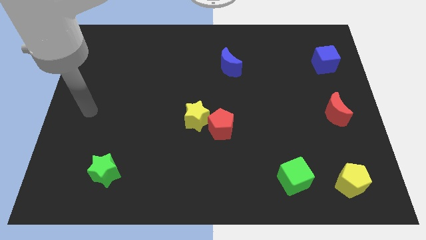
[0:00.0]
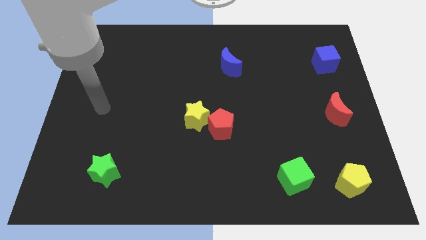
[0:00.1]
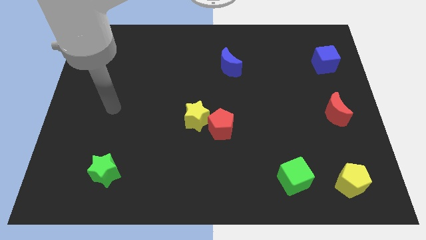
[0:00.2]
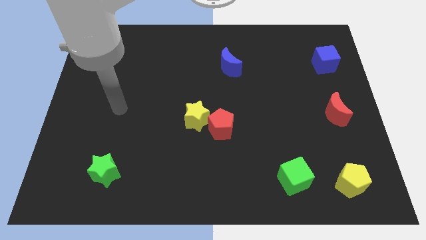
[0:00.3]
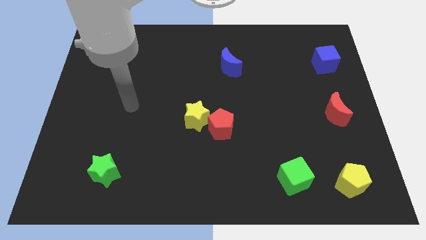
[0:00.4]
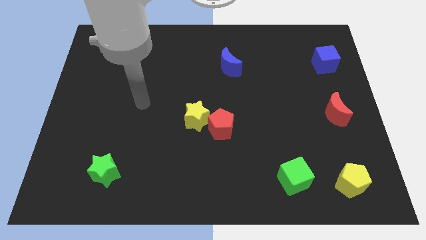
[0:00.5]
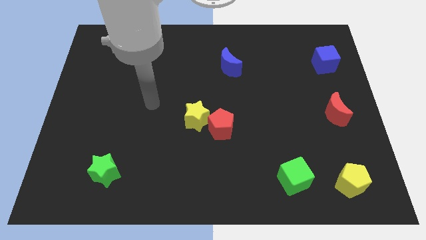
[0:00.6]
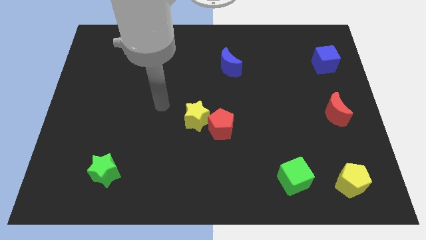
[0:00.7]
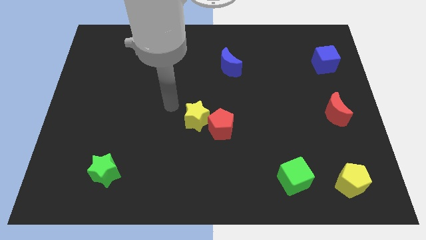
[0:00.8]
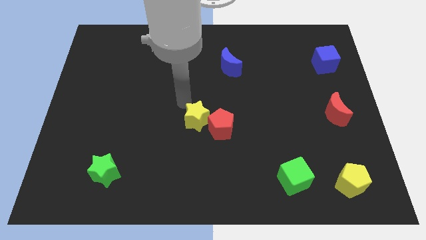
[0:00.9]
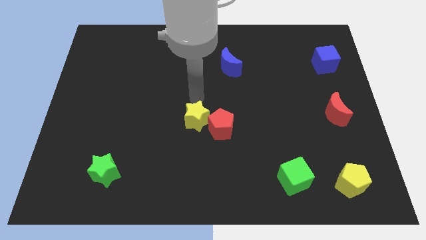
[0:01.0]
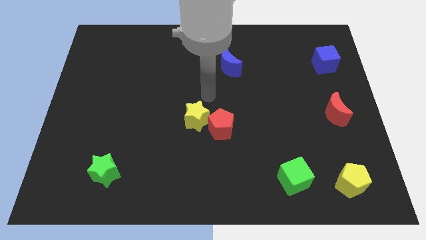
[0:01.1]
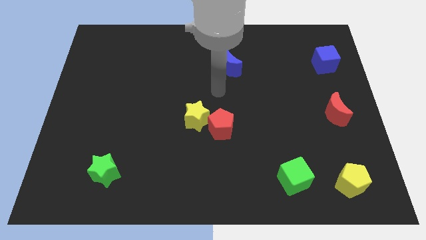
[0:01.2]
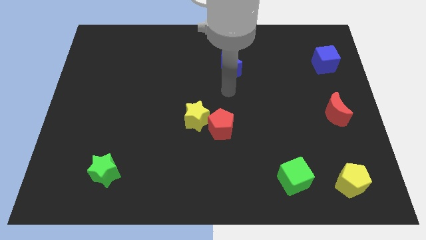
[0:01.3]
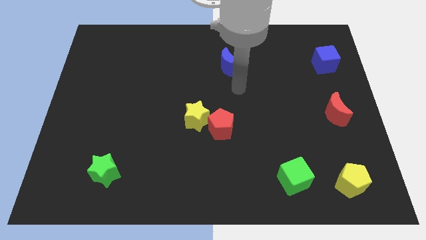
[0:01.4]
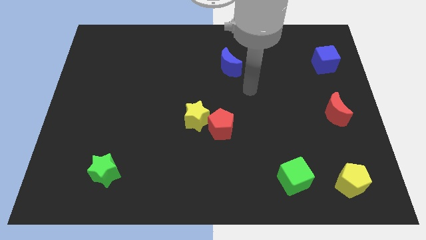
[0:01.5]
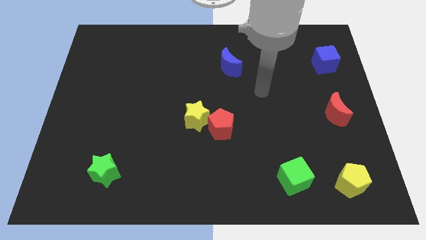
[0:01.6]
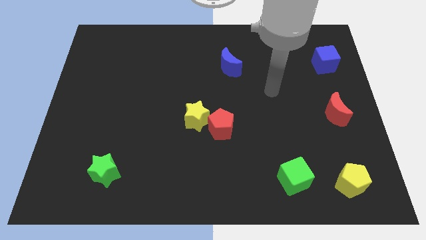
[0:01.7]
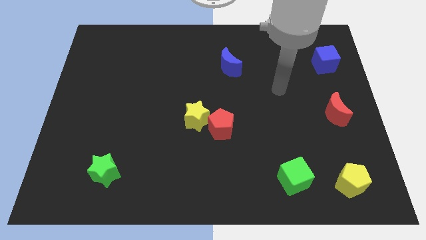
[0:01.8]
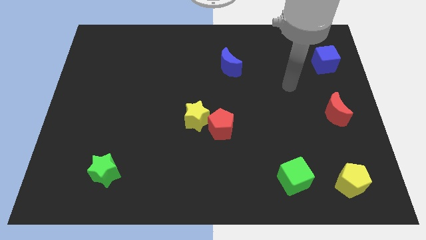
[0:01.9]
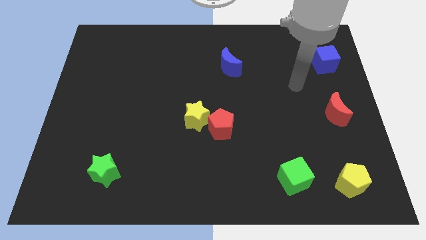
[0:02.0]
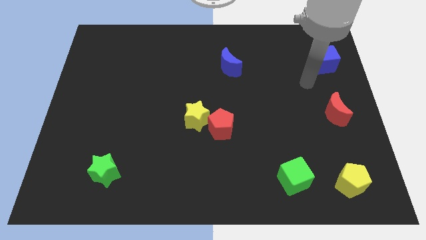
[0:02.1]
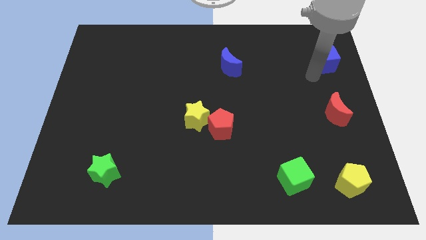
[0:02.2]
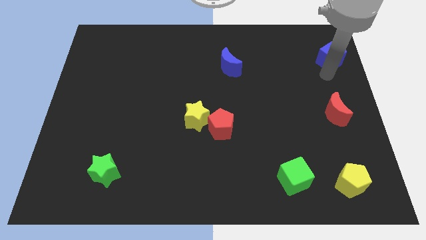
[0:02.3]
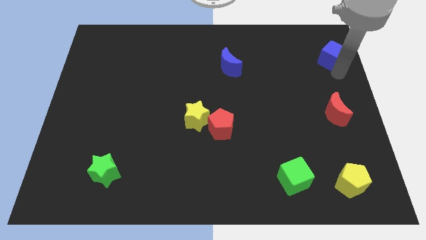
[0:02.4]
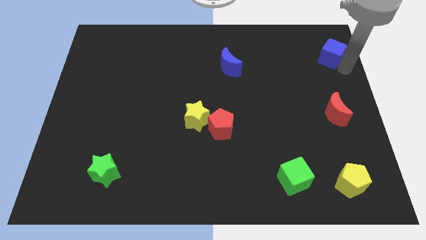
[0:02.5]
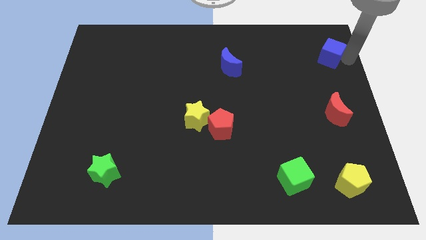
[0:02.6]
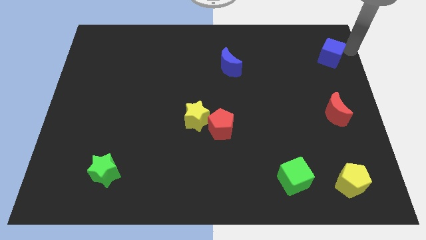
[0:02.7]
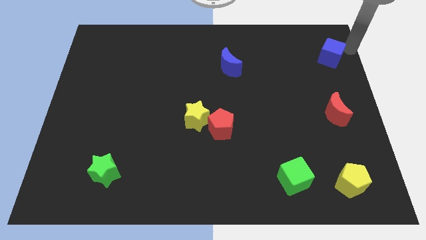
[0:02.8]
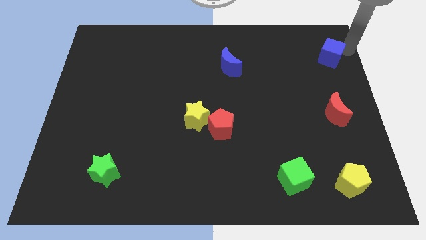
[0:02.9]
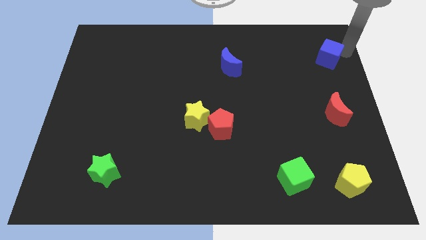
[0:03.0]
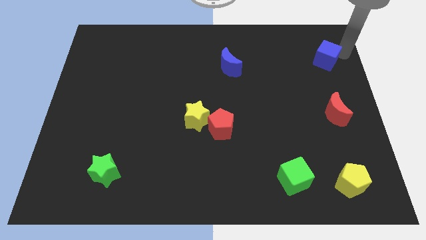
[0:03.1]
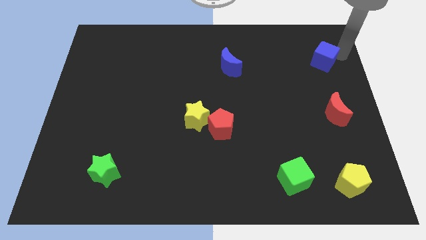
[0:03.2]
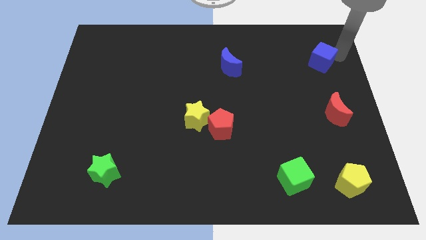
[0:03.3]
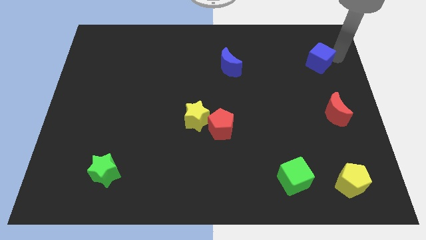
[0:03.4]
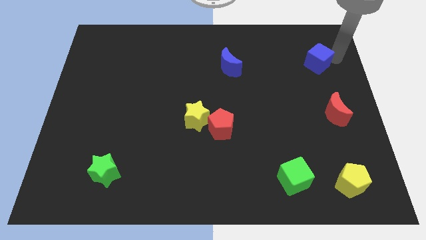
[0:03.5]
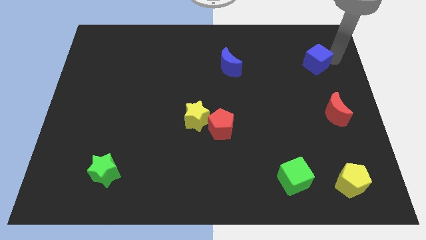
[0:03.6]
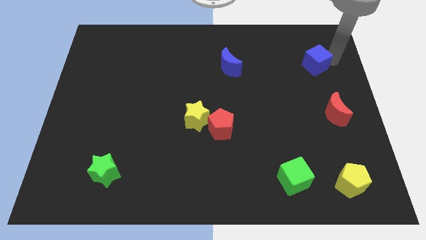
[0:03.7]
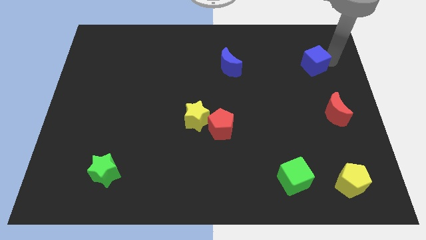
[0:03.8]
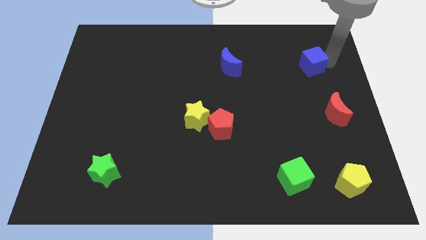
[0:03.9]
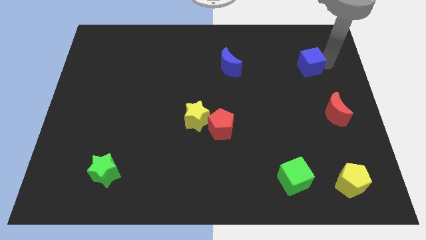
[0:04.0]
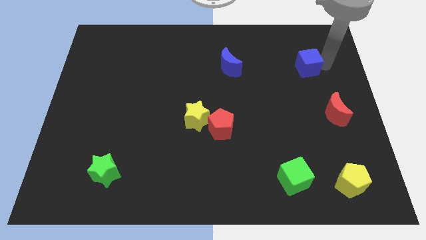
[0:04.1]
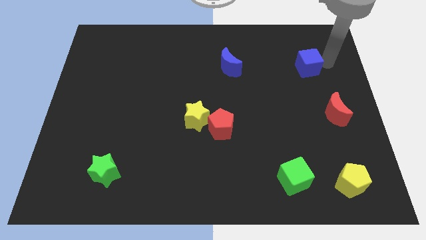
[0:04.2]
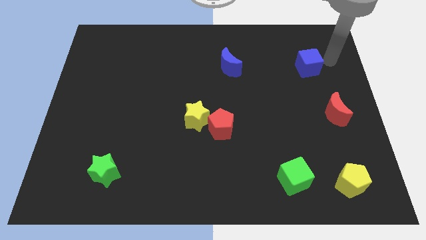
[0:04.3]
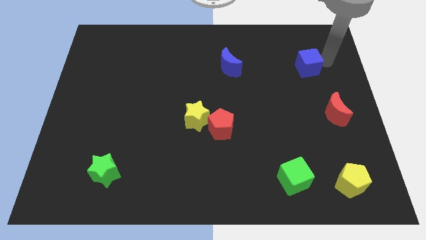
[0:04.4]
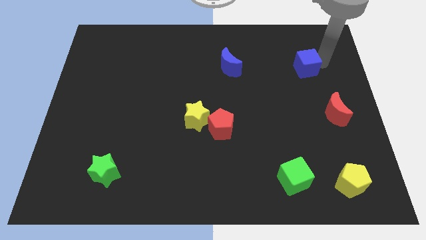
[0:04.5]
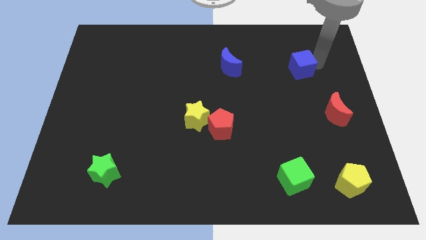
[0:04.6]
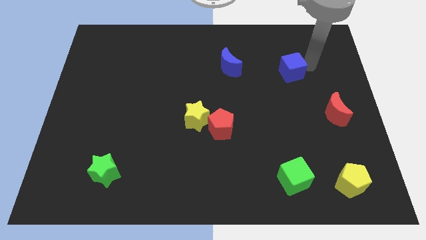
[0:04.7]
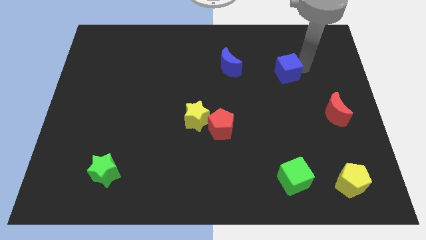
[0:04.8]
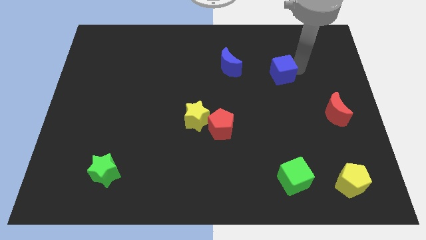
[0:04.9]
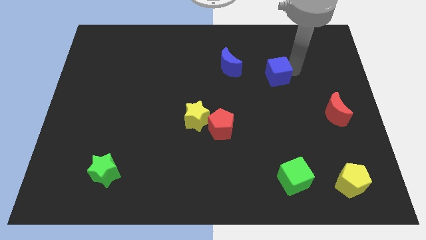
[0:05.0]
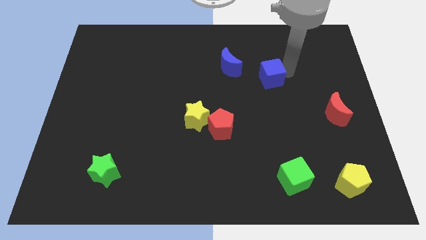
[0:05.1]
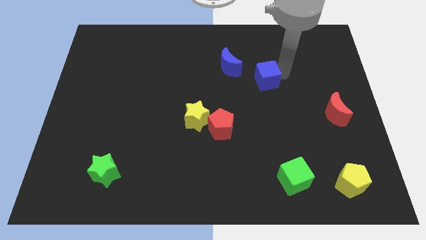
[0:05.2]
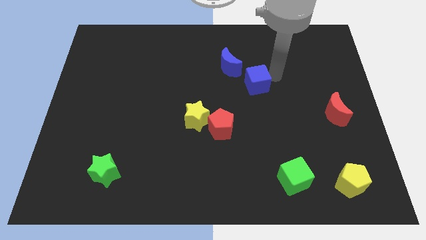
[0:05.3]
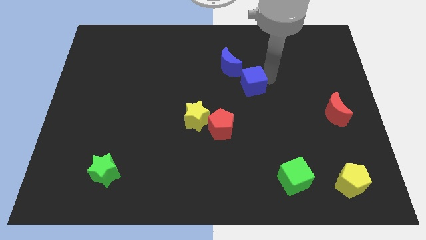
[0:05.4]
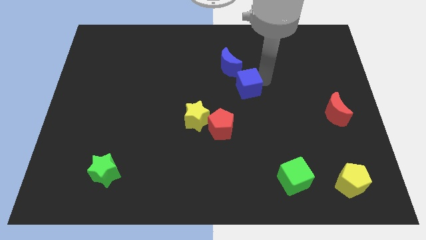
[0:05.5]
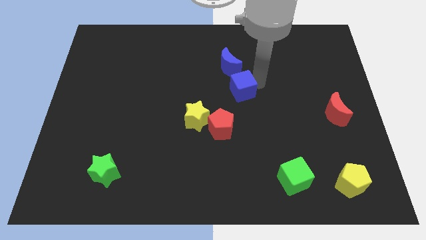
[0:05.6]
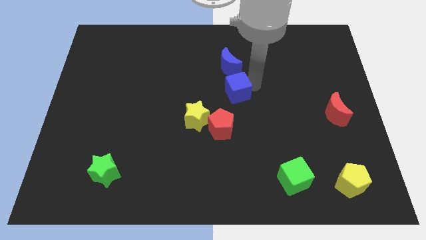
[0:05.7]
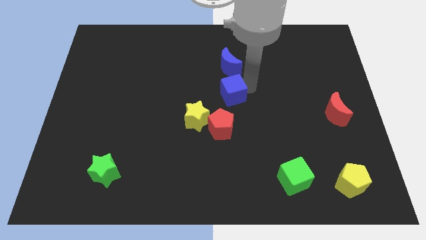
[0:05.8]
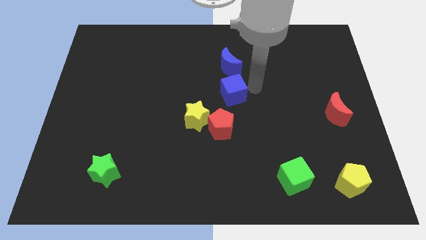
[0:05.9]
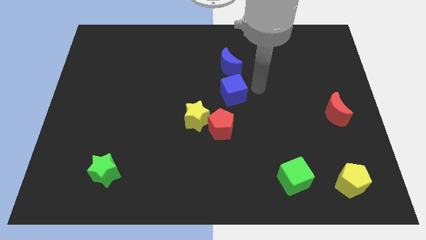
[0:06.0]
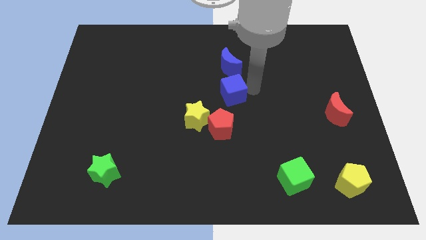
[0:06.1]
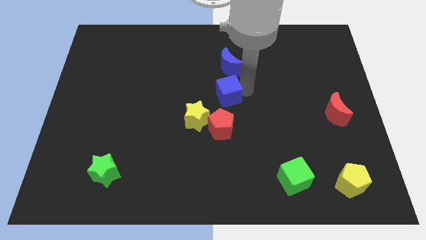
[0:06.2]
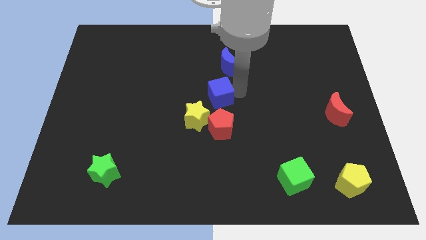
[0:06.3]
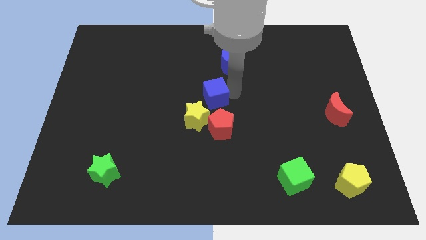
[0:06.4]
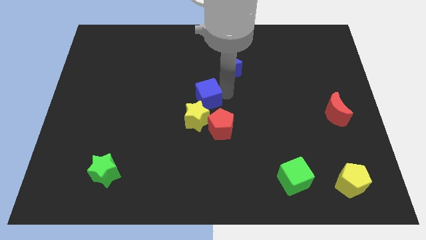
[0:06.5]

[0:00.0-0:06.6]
move the blue cube diagonally up and to the left of the red pentagon

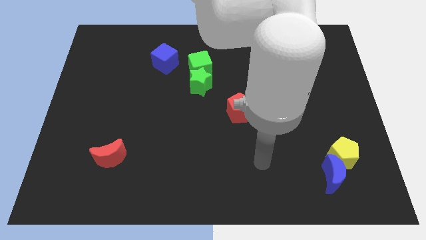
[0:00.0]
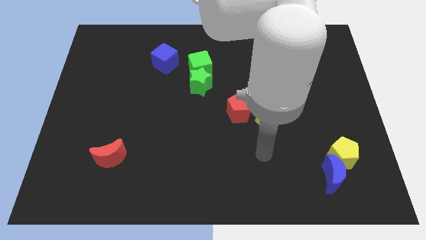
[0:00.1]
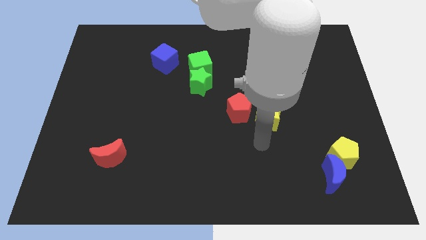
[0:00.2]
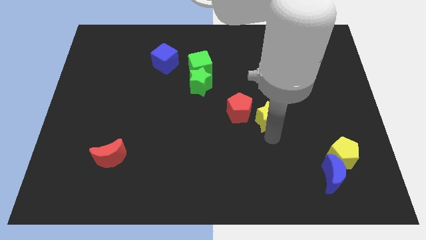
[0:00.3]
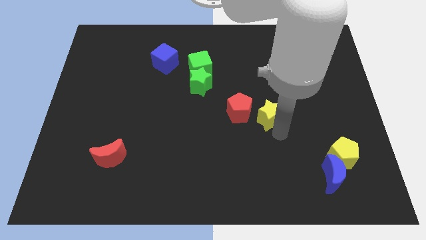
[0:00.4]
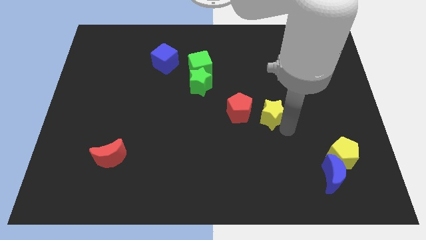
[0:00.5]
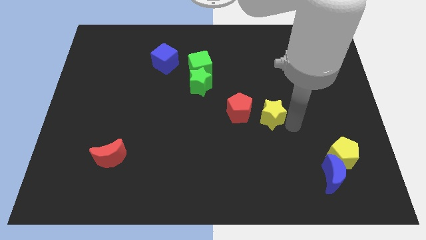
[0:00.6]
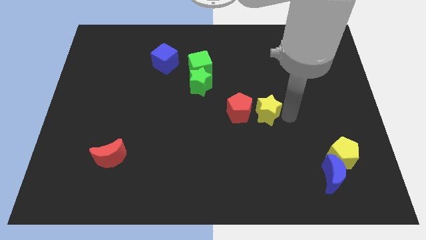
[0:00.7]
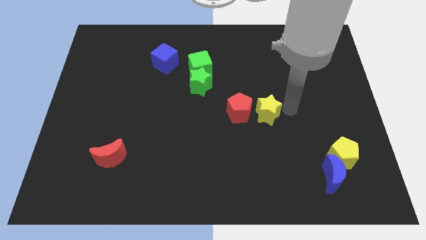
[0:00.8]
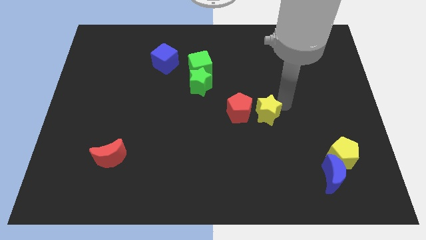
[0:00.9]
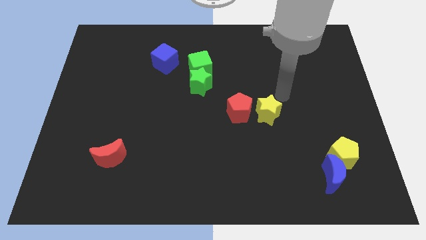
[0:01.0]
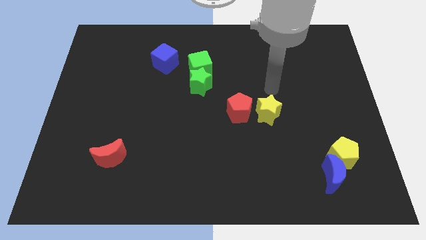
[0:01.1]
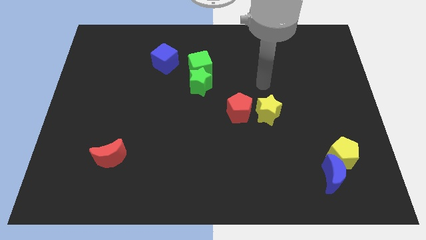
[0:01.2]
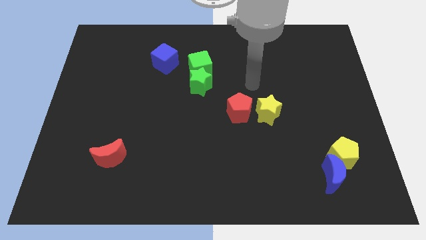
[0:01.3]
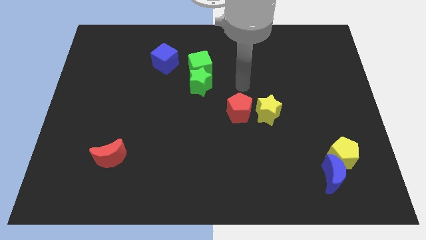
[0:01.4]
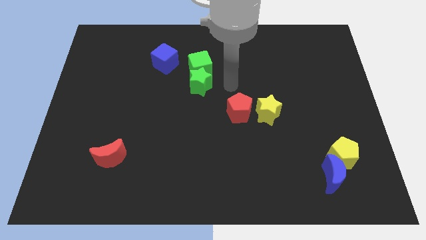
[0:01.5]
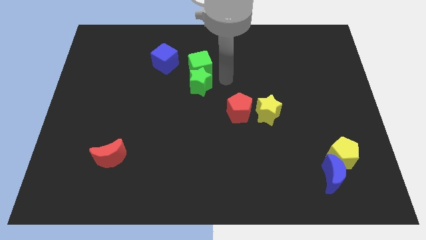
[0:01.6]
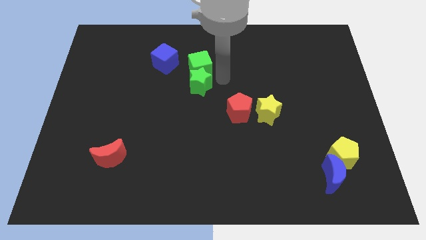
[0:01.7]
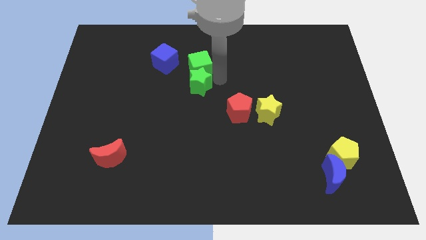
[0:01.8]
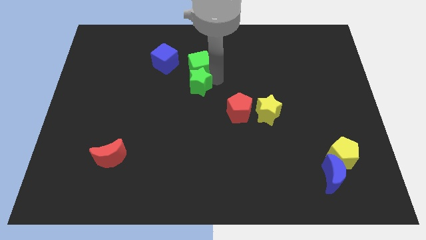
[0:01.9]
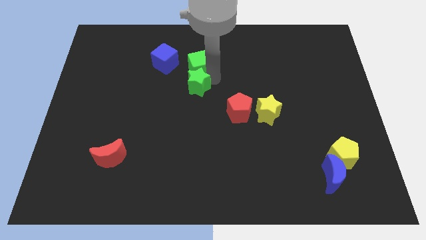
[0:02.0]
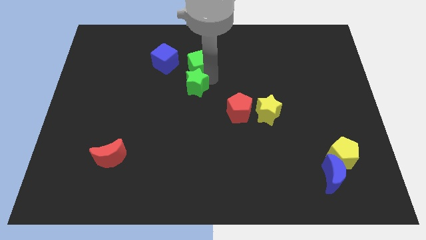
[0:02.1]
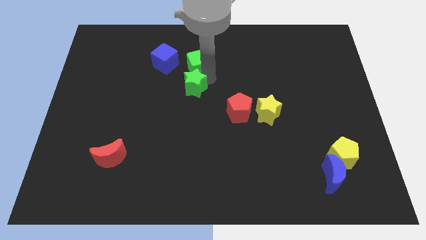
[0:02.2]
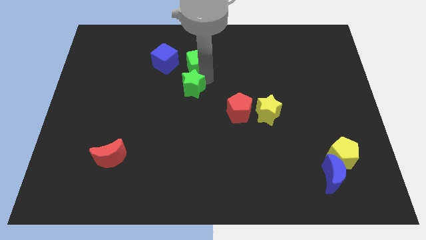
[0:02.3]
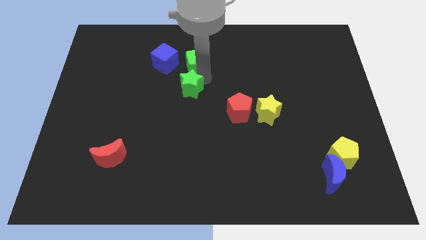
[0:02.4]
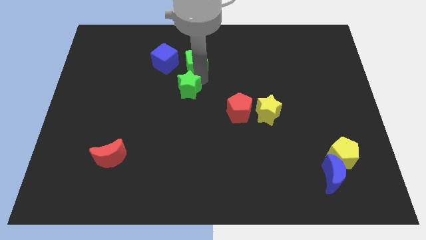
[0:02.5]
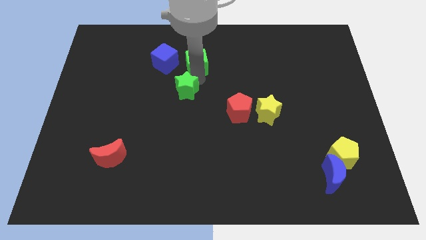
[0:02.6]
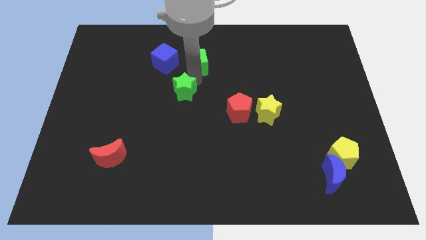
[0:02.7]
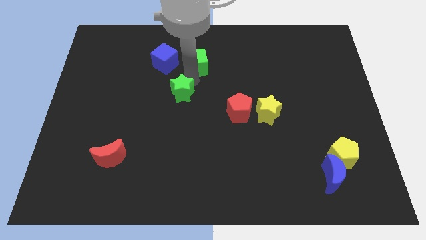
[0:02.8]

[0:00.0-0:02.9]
slide the green star below the blue cube
